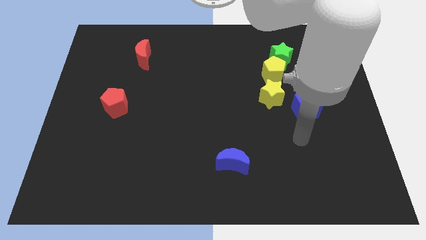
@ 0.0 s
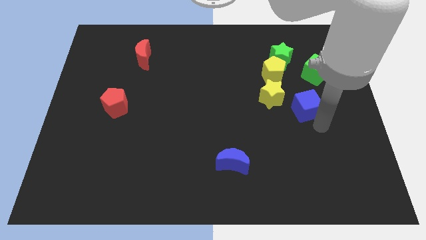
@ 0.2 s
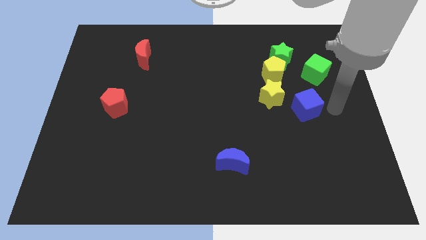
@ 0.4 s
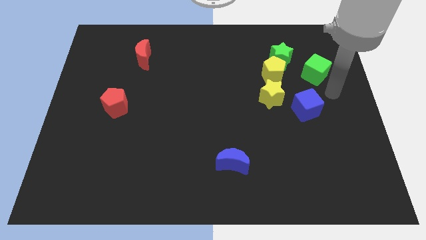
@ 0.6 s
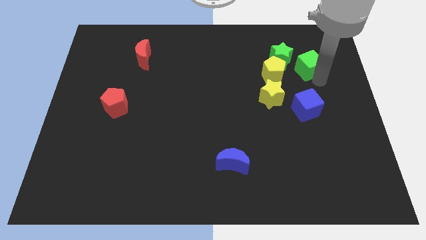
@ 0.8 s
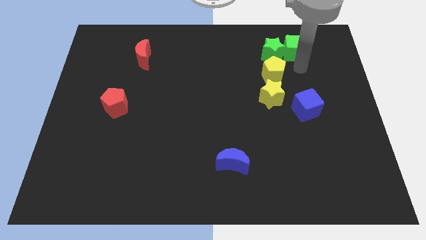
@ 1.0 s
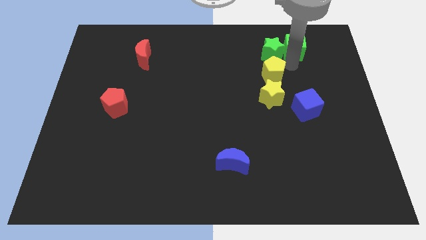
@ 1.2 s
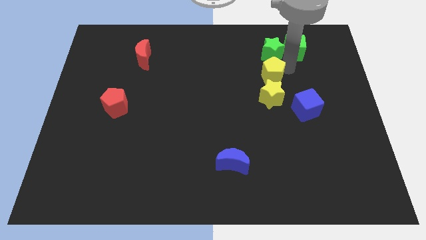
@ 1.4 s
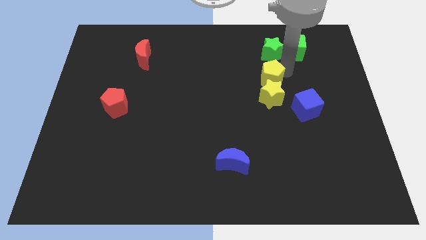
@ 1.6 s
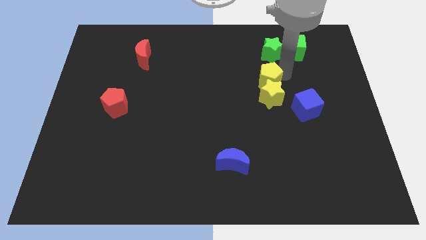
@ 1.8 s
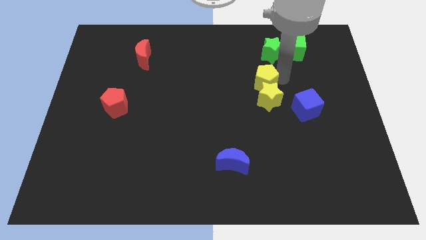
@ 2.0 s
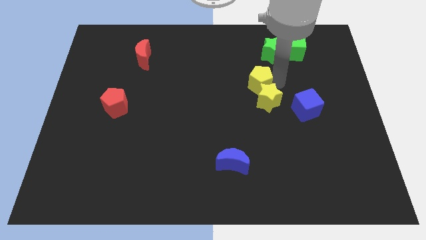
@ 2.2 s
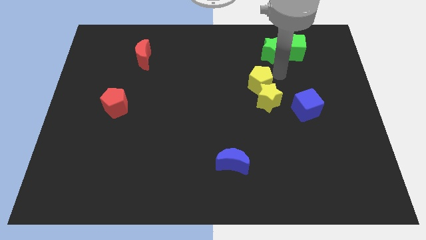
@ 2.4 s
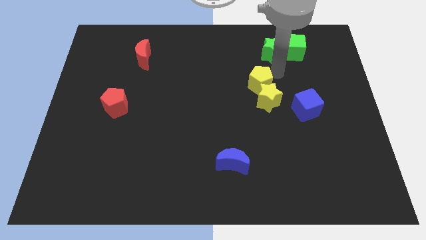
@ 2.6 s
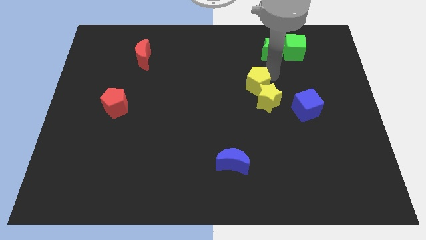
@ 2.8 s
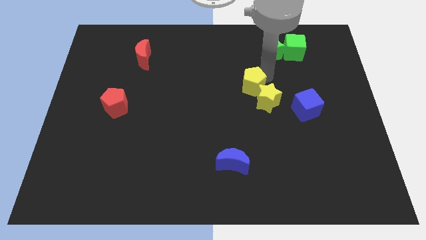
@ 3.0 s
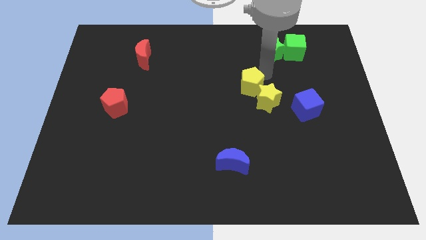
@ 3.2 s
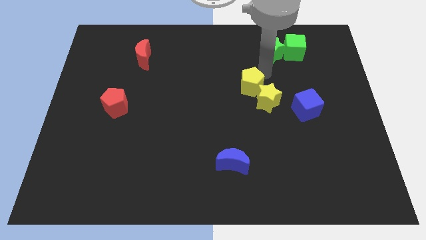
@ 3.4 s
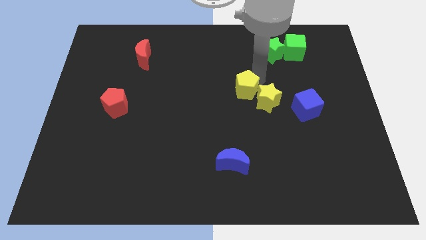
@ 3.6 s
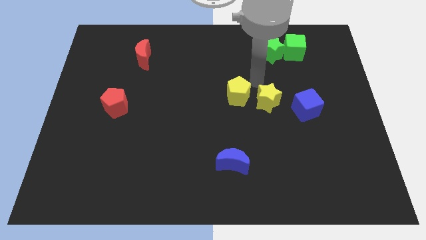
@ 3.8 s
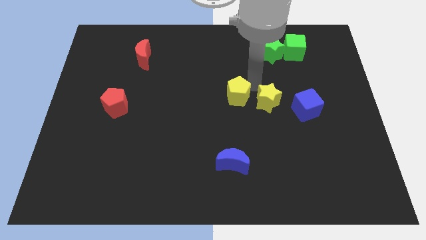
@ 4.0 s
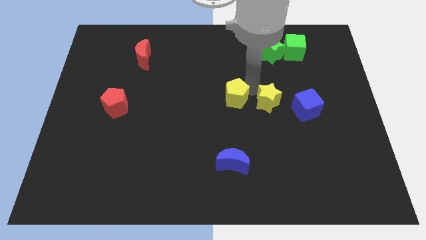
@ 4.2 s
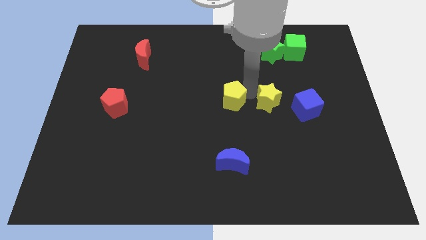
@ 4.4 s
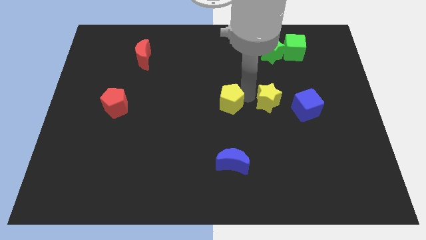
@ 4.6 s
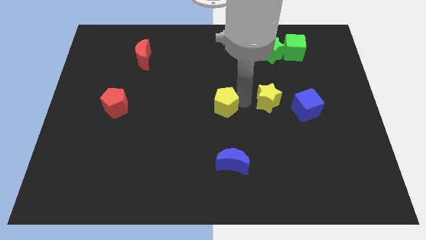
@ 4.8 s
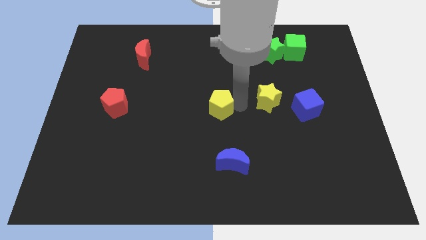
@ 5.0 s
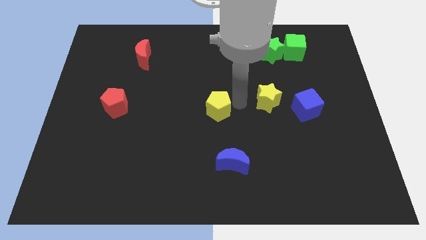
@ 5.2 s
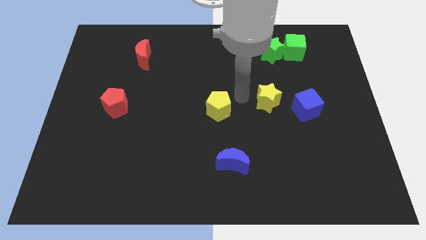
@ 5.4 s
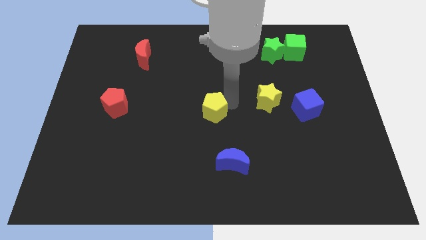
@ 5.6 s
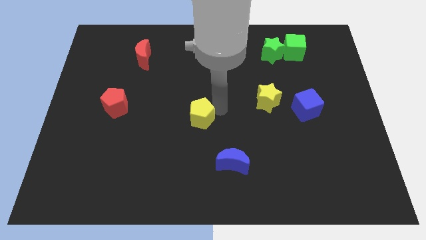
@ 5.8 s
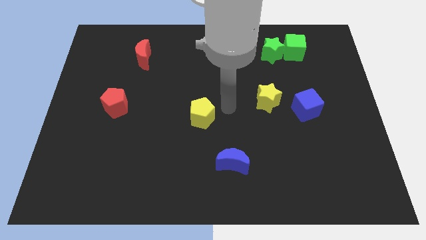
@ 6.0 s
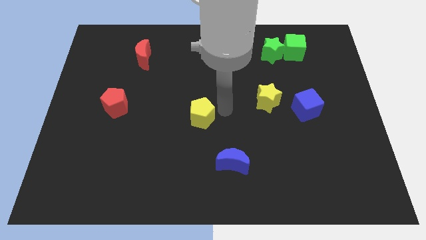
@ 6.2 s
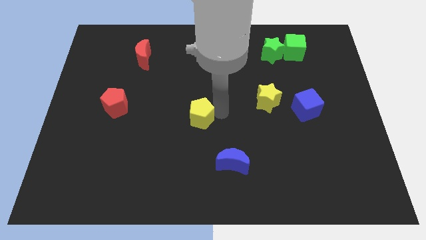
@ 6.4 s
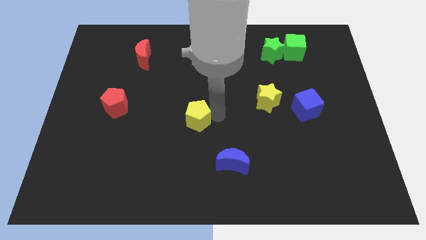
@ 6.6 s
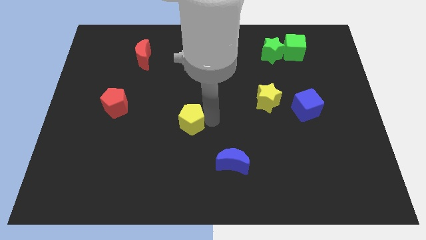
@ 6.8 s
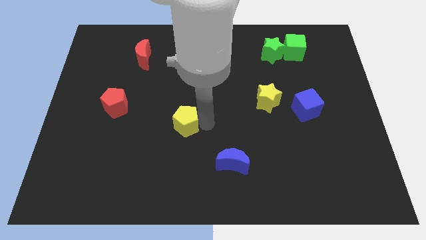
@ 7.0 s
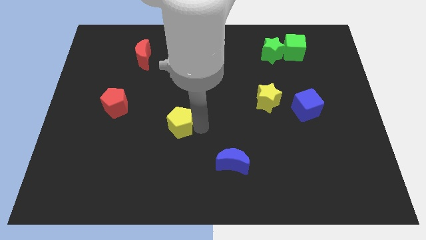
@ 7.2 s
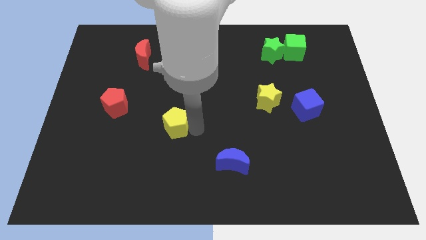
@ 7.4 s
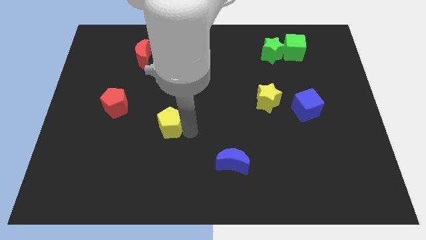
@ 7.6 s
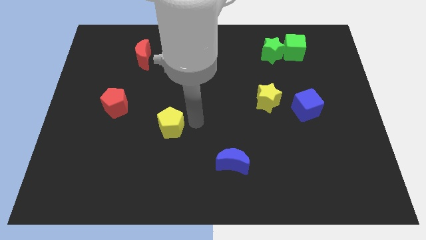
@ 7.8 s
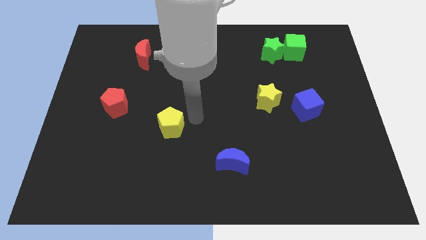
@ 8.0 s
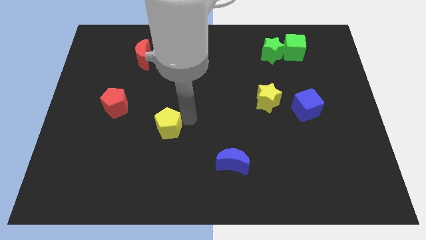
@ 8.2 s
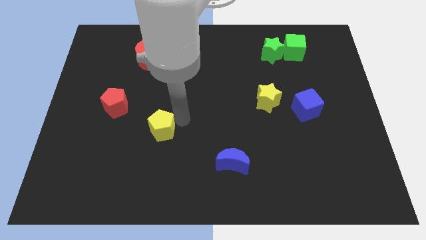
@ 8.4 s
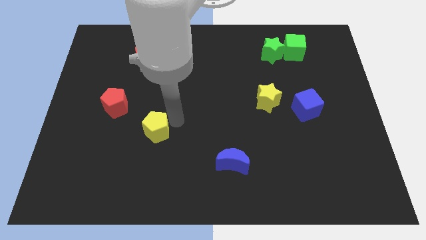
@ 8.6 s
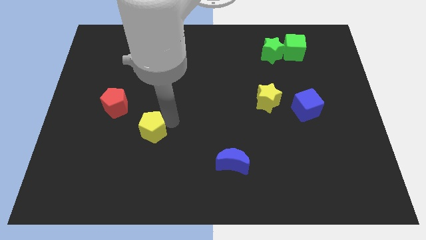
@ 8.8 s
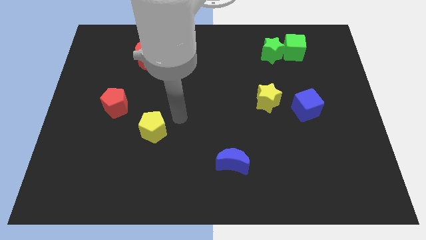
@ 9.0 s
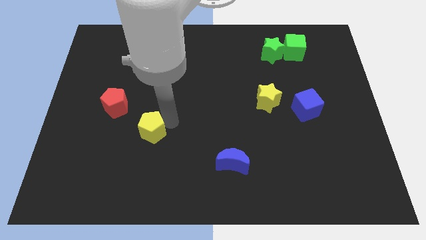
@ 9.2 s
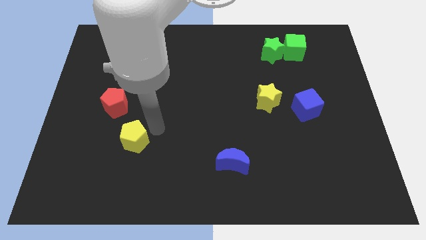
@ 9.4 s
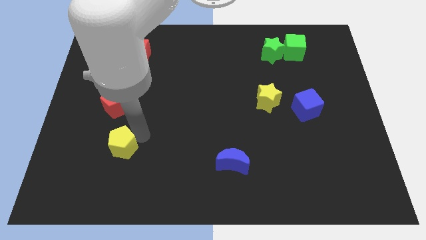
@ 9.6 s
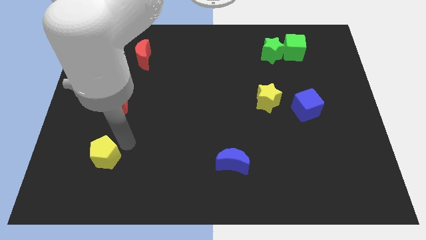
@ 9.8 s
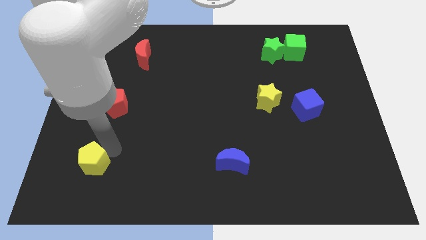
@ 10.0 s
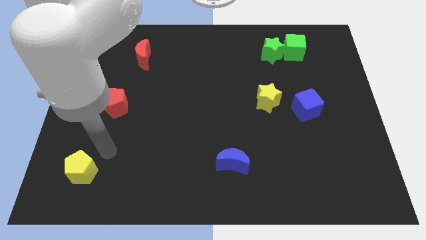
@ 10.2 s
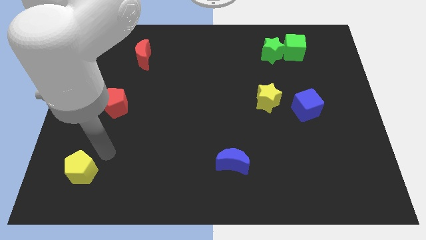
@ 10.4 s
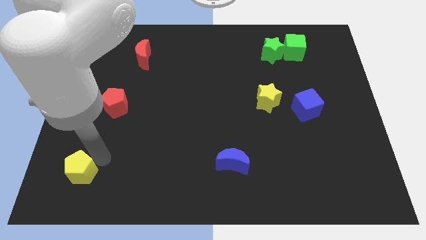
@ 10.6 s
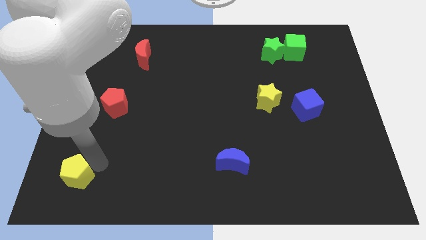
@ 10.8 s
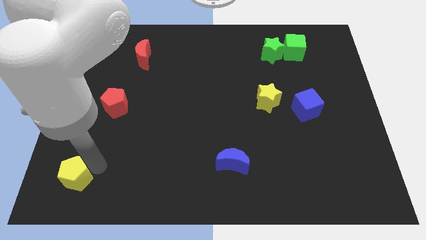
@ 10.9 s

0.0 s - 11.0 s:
slide the yellow pentagon to the bottom left corner
